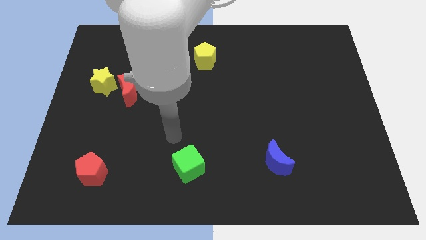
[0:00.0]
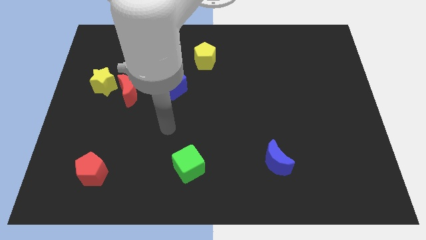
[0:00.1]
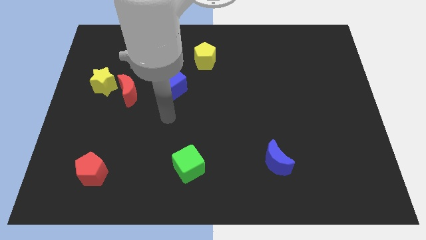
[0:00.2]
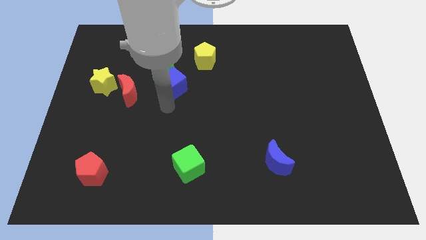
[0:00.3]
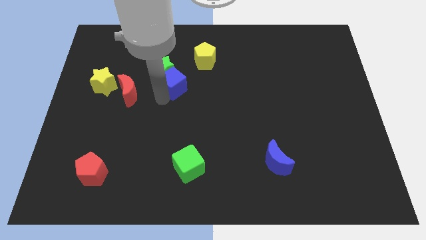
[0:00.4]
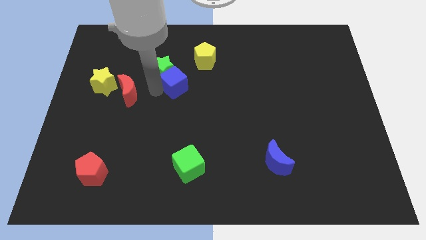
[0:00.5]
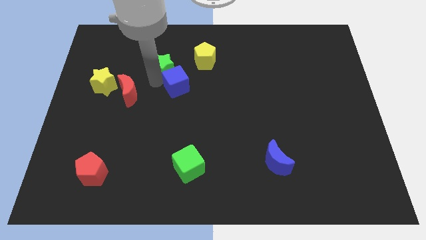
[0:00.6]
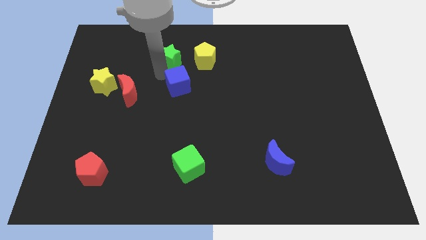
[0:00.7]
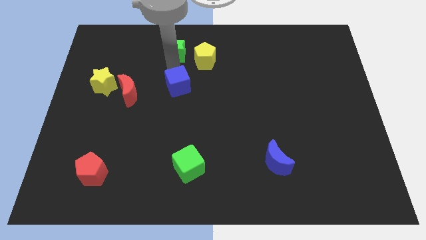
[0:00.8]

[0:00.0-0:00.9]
pull the blue cube apart from the green star

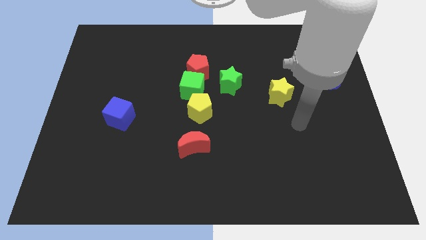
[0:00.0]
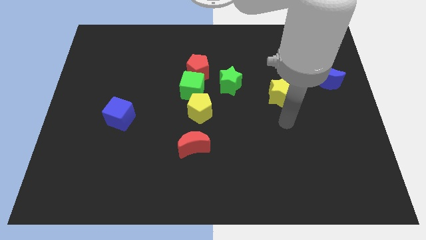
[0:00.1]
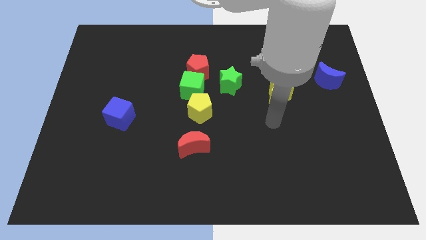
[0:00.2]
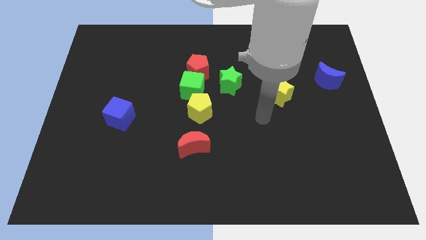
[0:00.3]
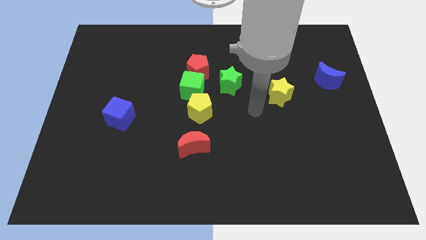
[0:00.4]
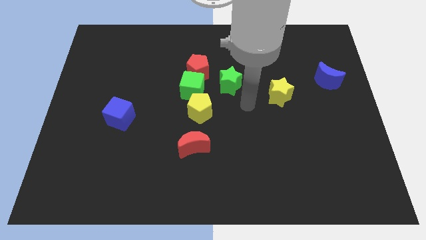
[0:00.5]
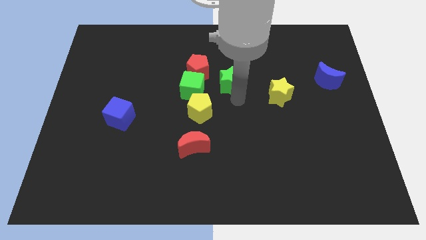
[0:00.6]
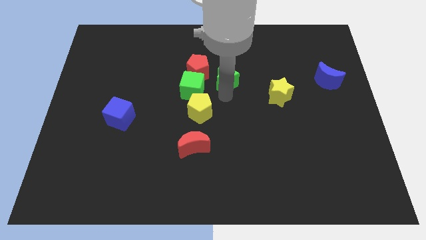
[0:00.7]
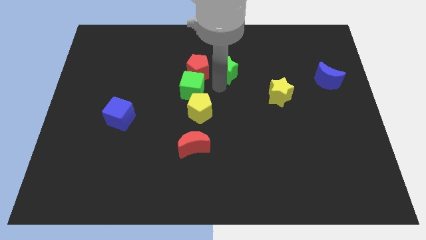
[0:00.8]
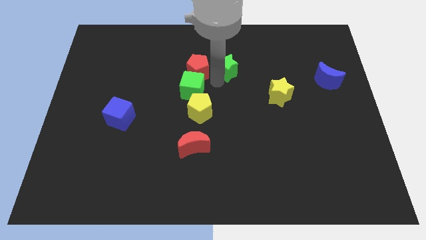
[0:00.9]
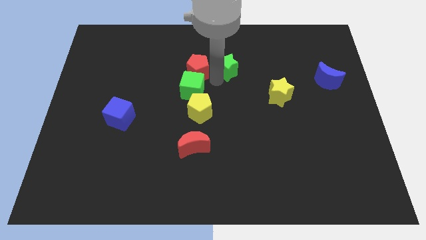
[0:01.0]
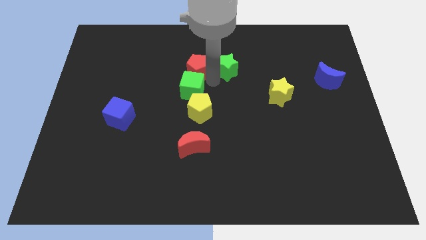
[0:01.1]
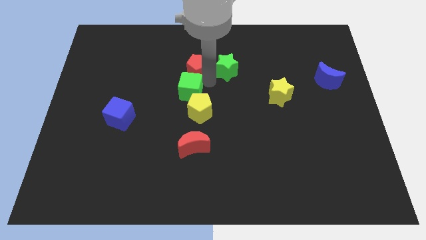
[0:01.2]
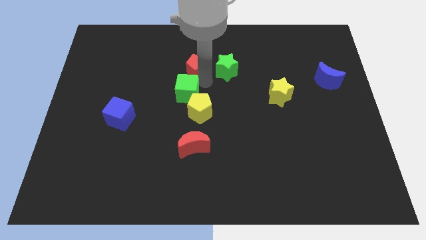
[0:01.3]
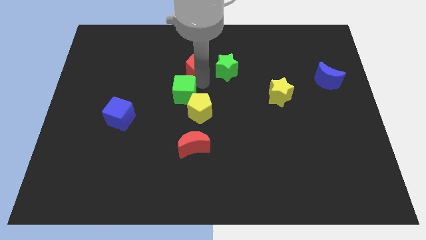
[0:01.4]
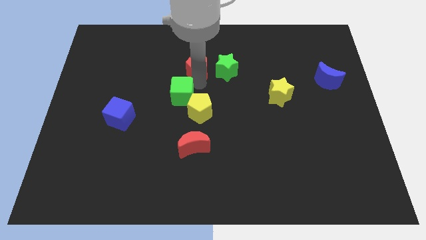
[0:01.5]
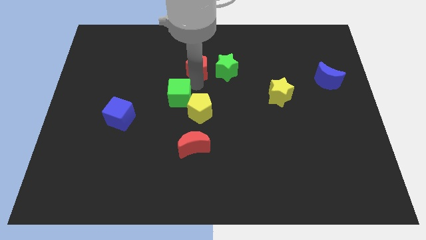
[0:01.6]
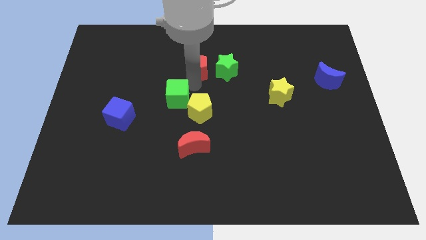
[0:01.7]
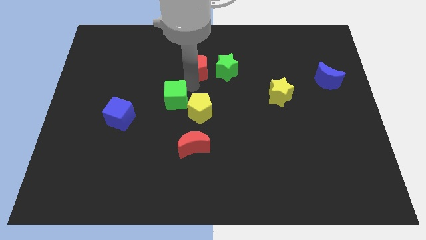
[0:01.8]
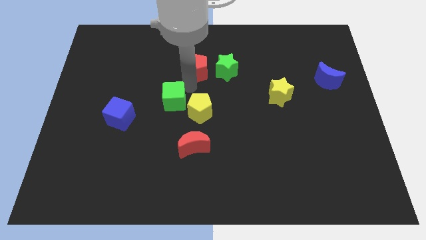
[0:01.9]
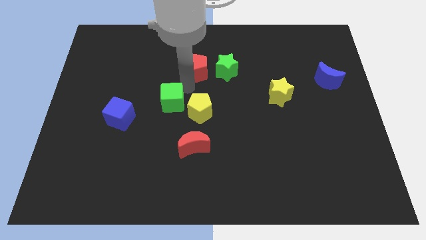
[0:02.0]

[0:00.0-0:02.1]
separate the green cube from the red pentagon, yellow pentagon, and green star

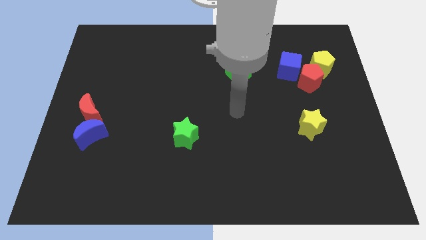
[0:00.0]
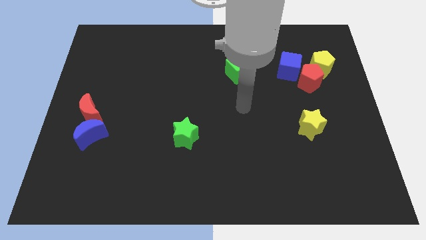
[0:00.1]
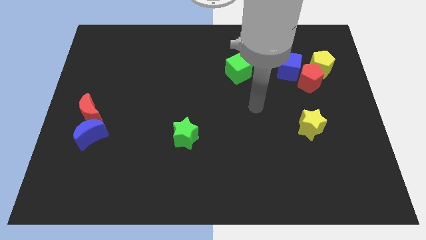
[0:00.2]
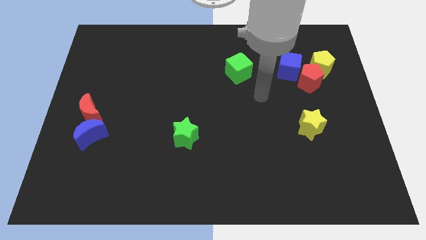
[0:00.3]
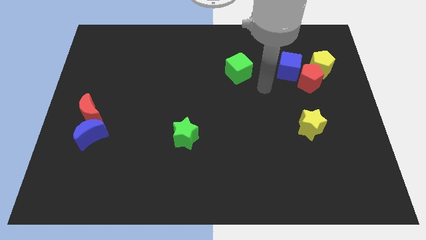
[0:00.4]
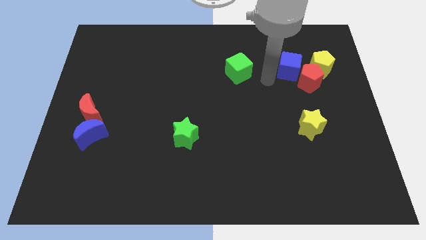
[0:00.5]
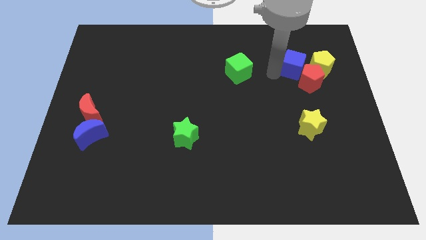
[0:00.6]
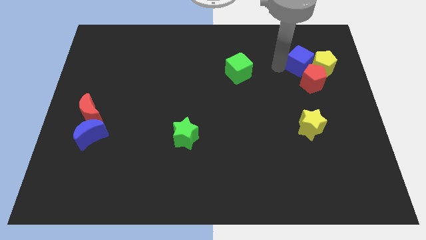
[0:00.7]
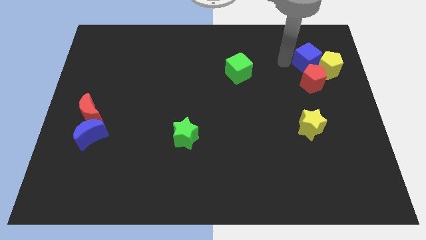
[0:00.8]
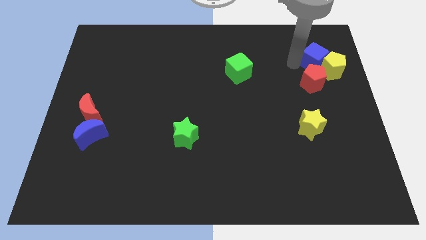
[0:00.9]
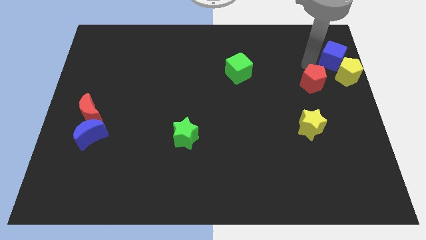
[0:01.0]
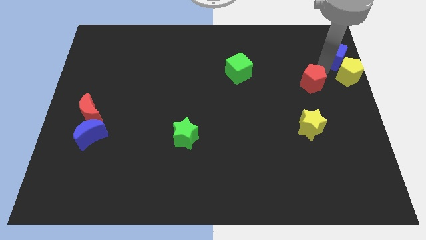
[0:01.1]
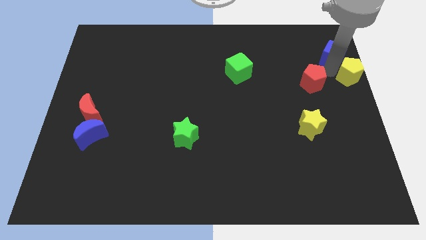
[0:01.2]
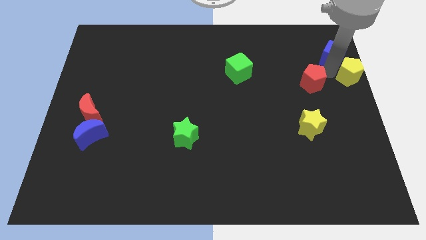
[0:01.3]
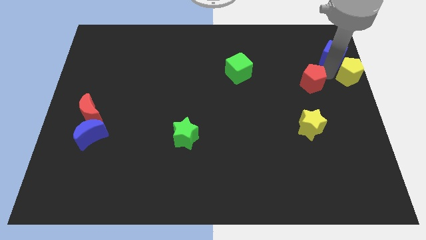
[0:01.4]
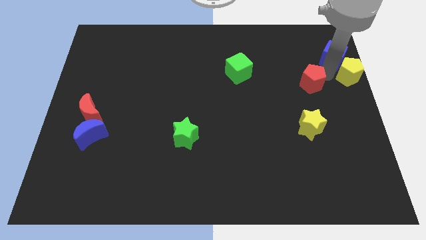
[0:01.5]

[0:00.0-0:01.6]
pull the red pentagon apart from the yellow pentagon and blue cube

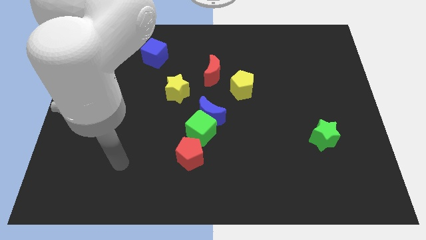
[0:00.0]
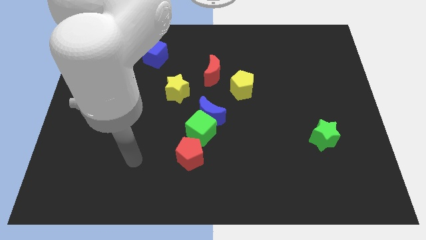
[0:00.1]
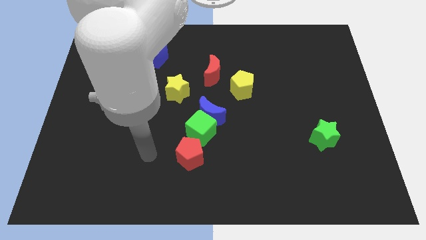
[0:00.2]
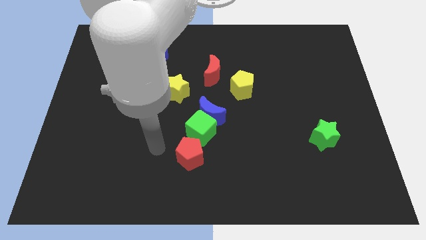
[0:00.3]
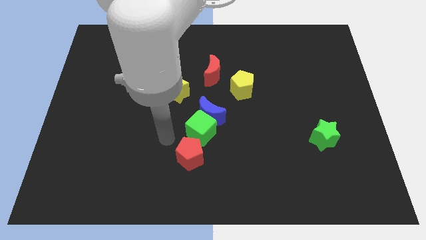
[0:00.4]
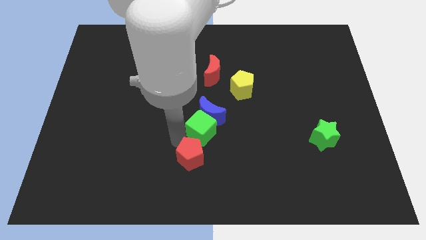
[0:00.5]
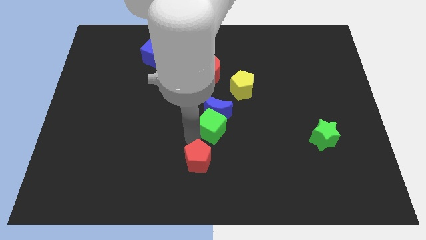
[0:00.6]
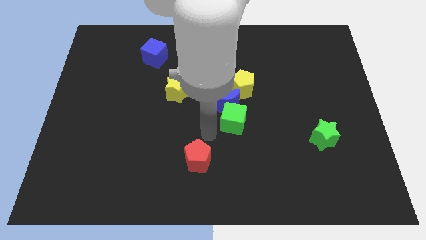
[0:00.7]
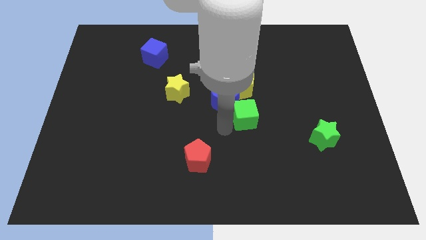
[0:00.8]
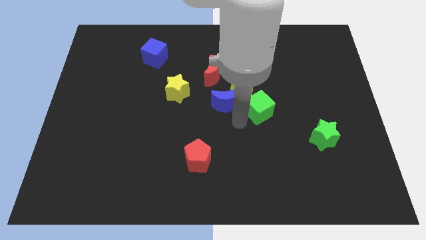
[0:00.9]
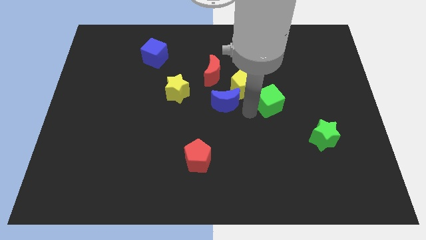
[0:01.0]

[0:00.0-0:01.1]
pull the blue moon apart from the green cube

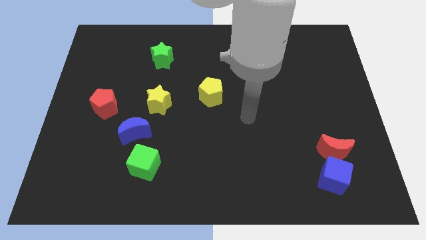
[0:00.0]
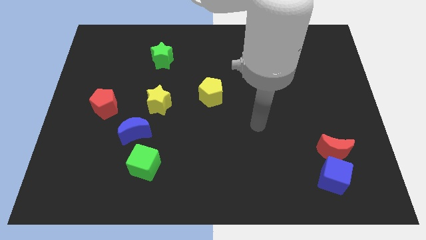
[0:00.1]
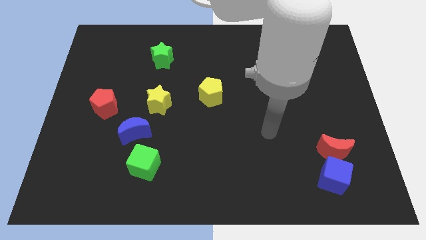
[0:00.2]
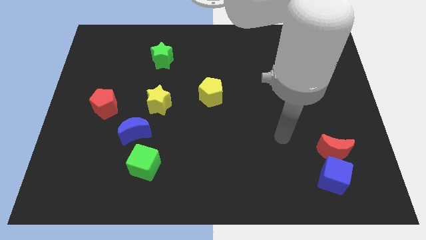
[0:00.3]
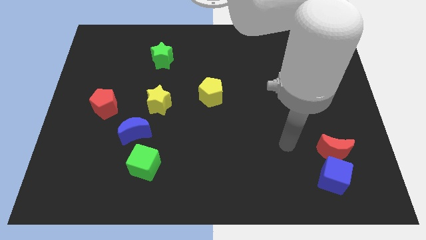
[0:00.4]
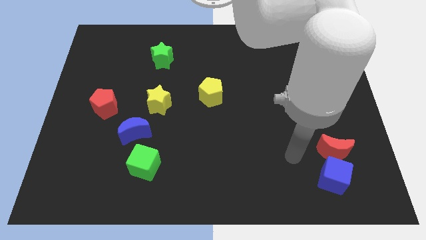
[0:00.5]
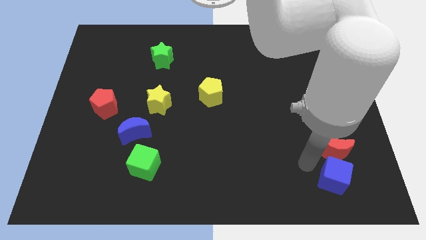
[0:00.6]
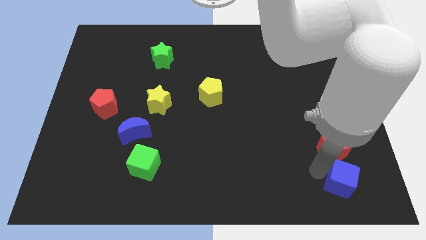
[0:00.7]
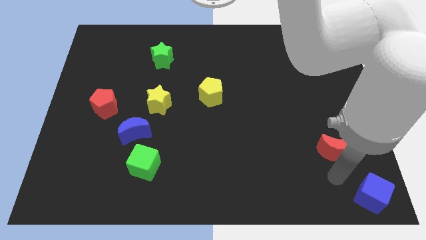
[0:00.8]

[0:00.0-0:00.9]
separate the red moon from the blue cube

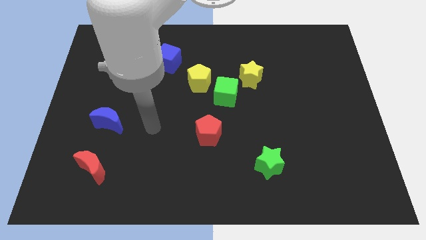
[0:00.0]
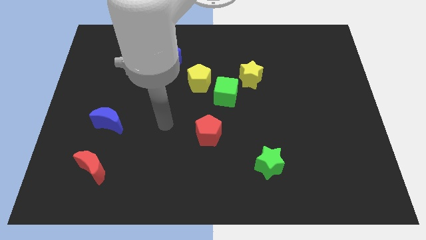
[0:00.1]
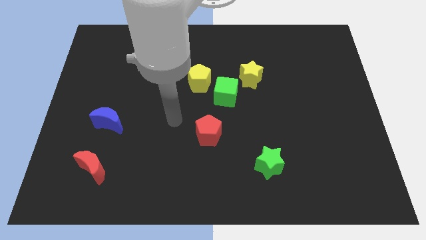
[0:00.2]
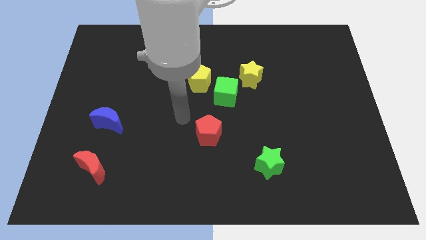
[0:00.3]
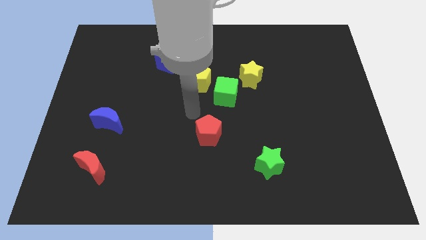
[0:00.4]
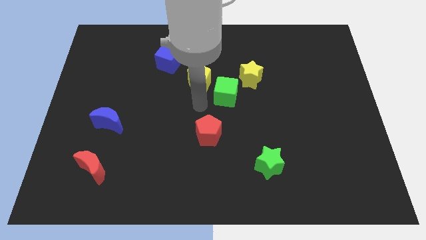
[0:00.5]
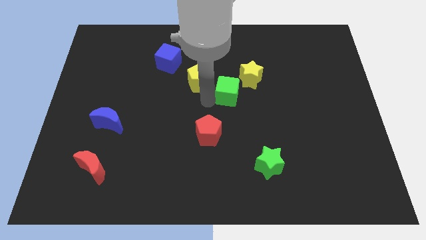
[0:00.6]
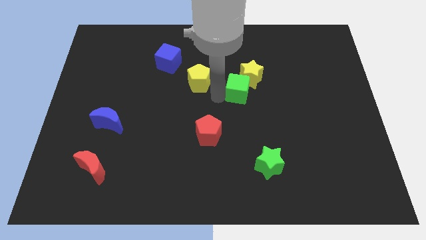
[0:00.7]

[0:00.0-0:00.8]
pull the yellow pentagon apart from the green cube

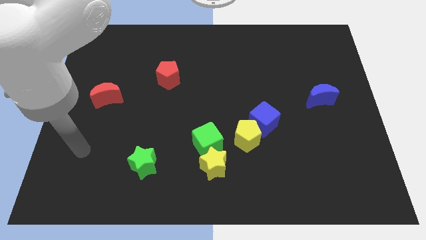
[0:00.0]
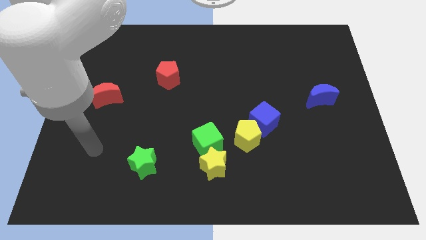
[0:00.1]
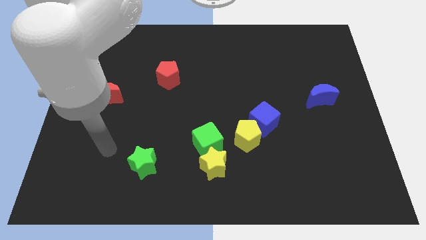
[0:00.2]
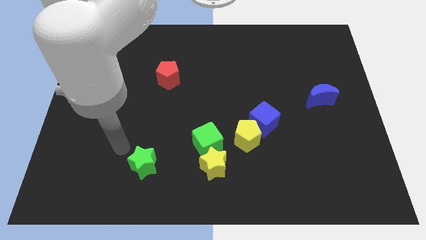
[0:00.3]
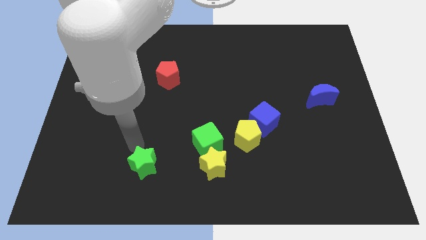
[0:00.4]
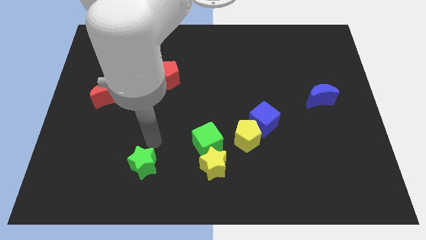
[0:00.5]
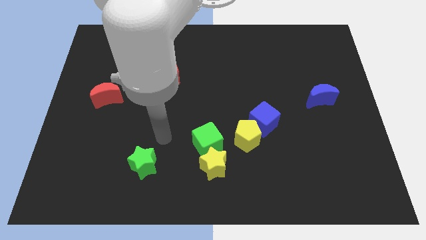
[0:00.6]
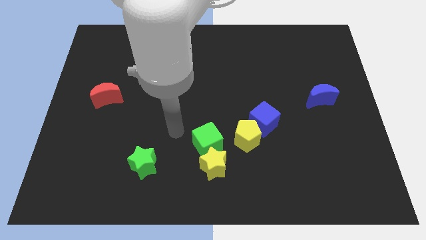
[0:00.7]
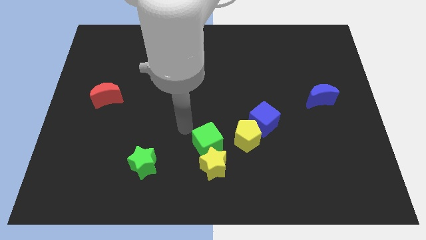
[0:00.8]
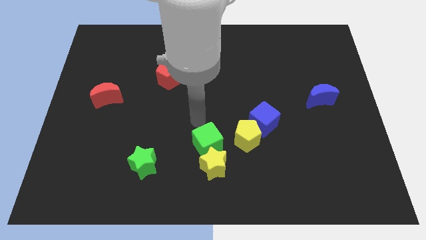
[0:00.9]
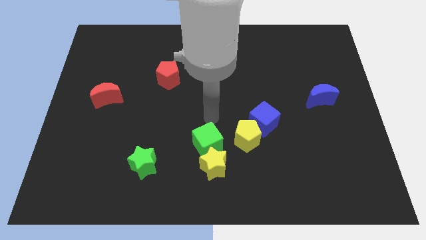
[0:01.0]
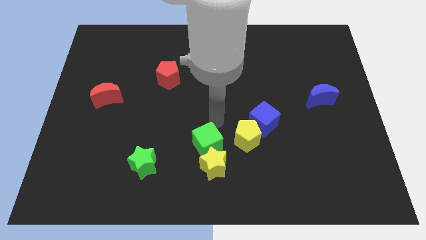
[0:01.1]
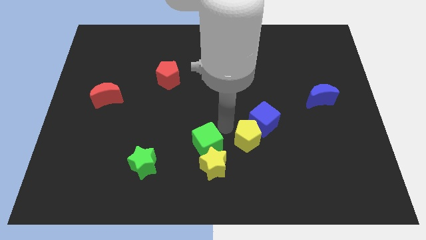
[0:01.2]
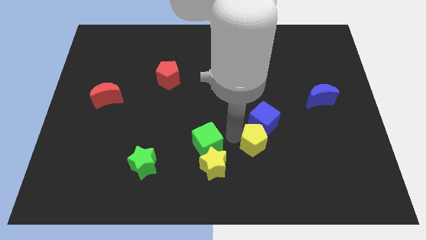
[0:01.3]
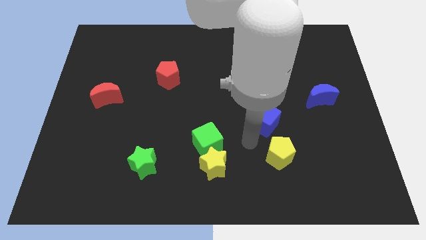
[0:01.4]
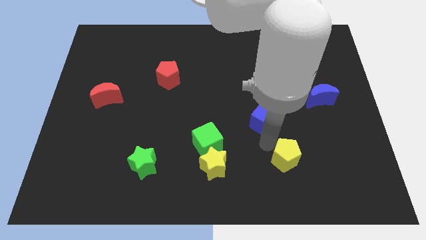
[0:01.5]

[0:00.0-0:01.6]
separate the blue cube from the yellow pentagon

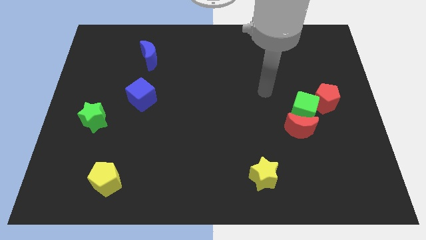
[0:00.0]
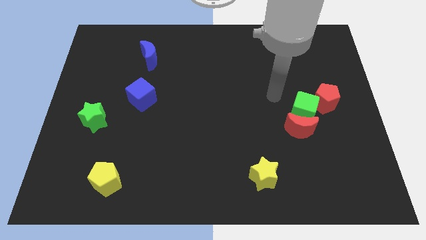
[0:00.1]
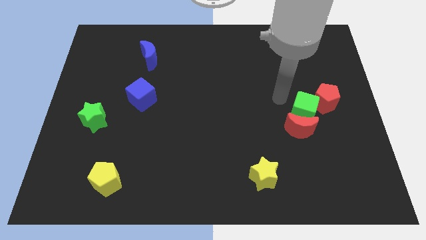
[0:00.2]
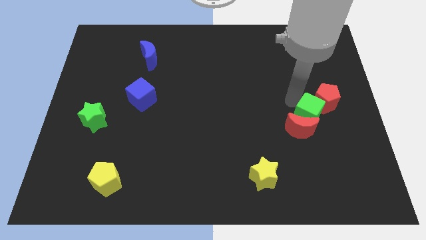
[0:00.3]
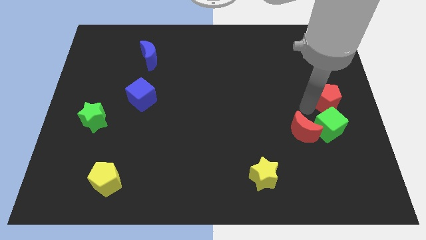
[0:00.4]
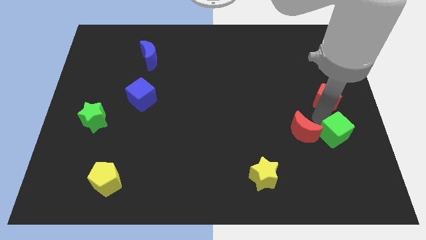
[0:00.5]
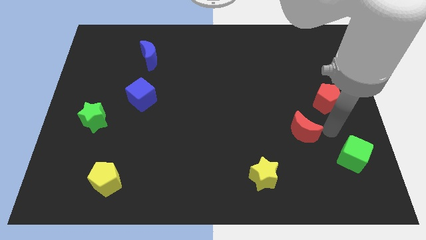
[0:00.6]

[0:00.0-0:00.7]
pull the red moon apart from the green cube
